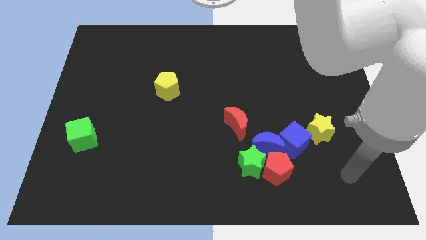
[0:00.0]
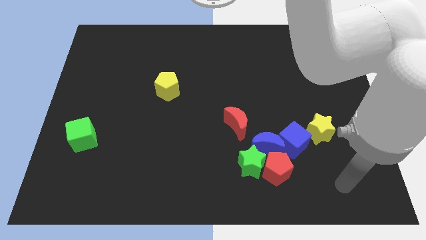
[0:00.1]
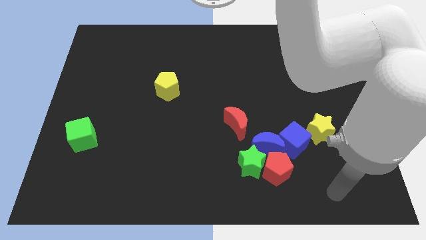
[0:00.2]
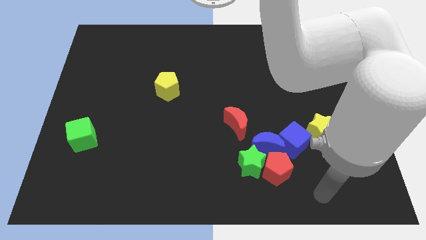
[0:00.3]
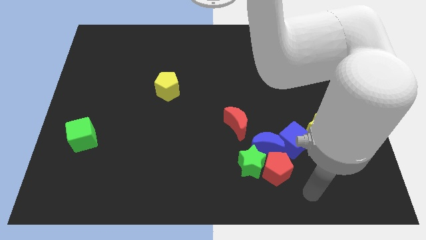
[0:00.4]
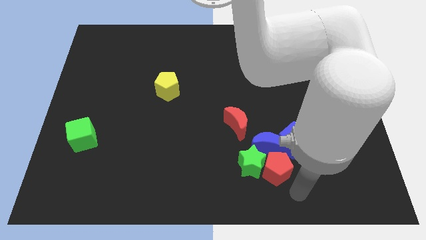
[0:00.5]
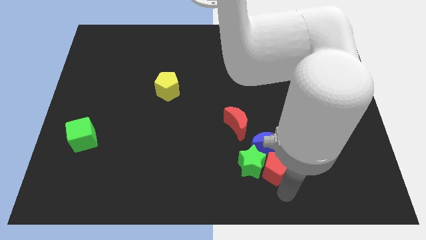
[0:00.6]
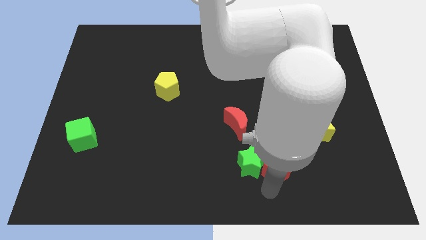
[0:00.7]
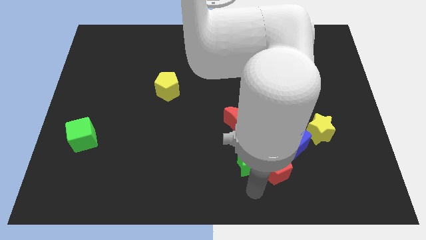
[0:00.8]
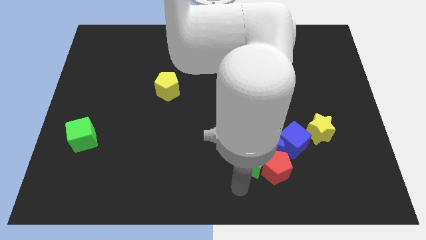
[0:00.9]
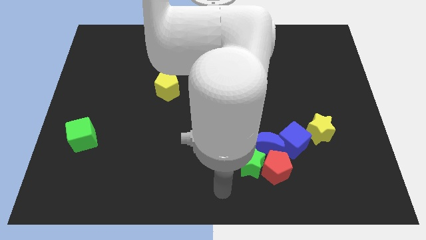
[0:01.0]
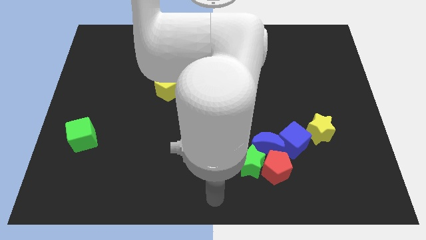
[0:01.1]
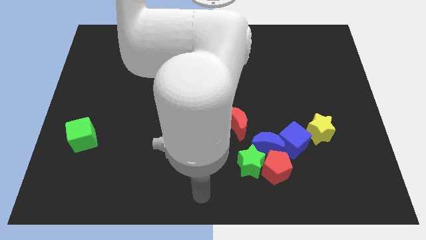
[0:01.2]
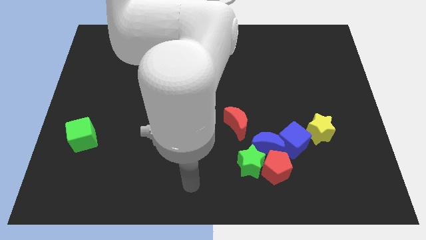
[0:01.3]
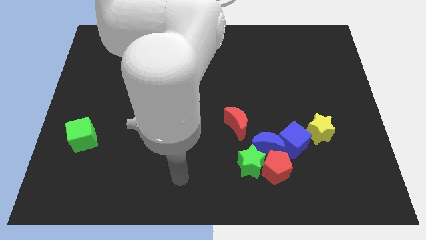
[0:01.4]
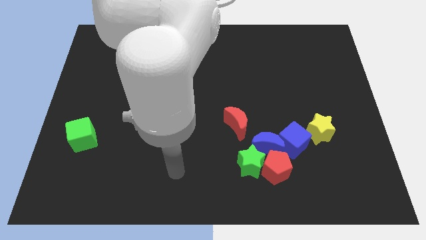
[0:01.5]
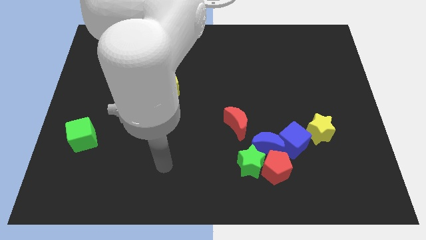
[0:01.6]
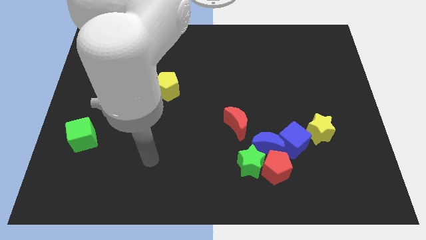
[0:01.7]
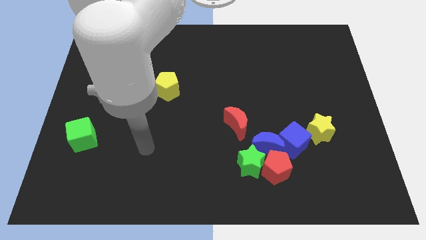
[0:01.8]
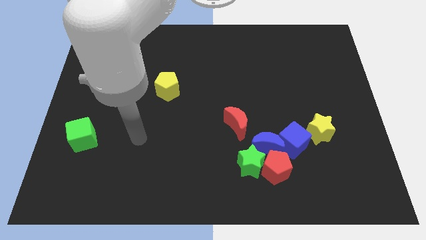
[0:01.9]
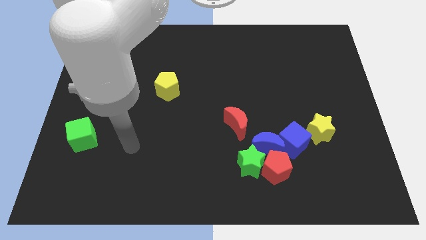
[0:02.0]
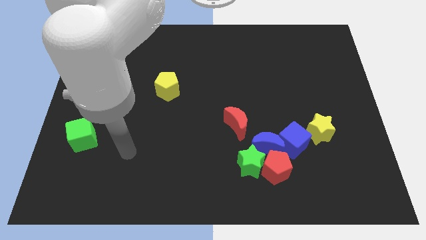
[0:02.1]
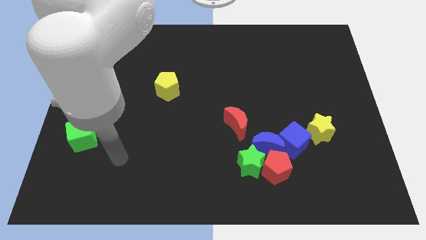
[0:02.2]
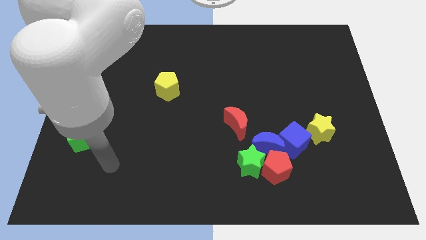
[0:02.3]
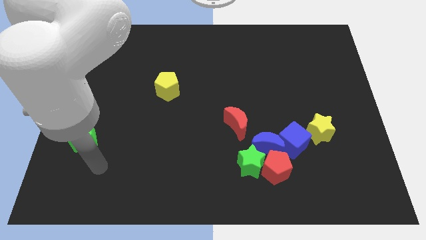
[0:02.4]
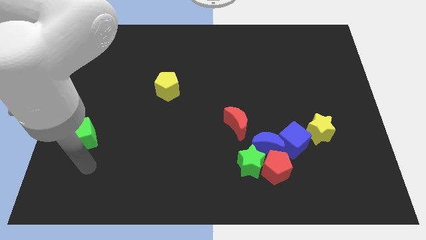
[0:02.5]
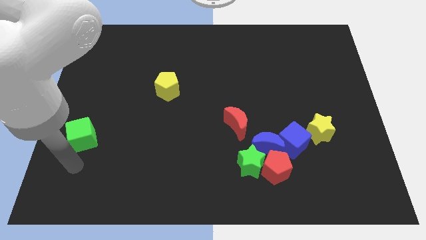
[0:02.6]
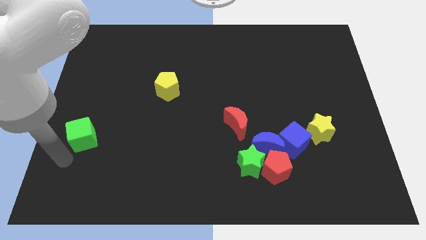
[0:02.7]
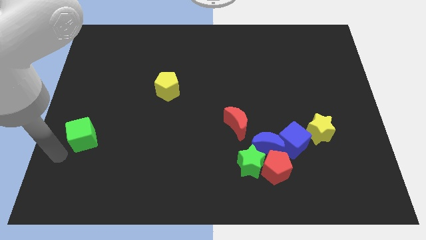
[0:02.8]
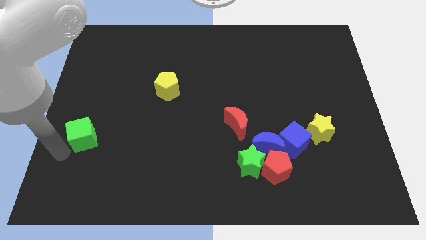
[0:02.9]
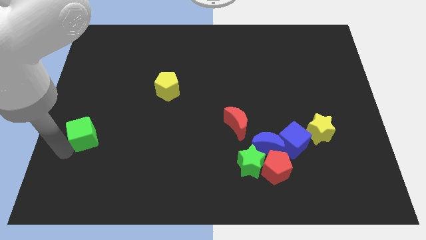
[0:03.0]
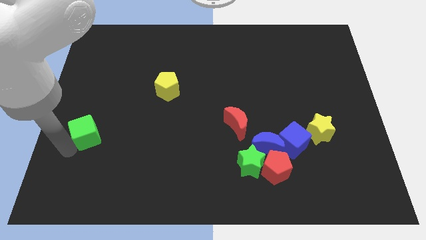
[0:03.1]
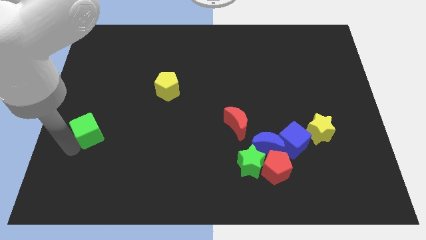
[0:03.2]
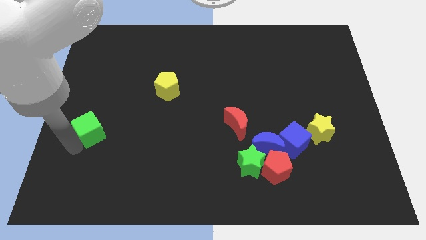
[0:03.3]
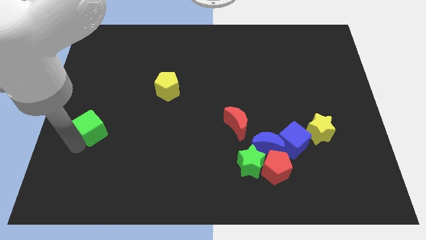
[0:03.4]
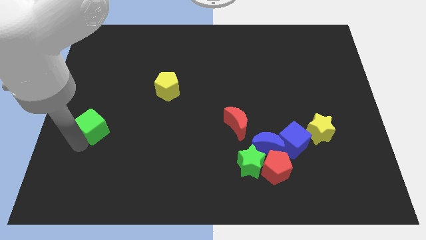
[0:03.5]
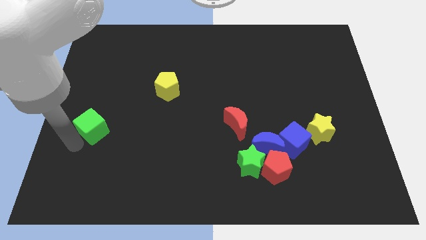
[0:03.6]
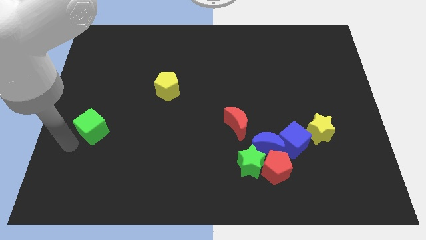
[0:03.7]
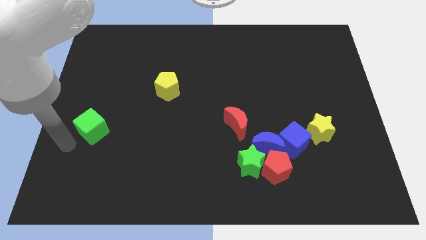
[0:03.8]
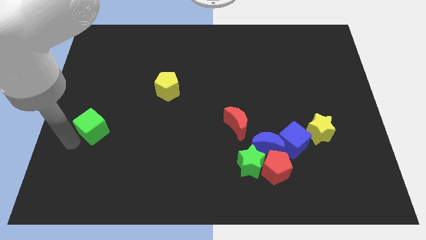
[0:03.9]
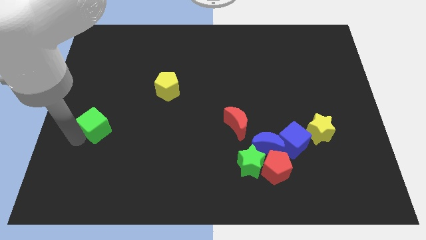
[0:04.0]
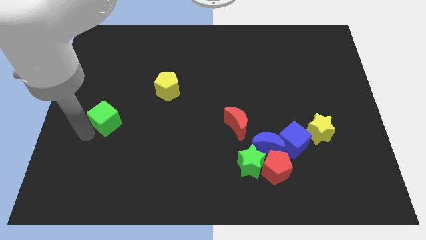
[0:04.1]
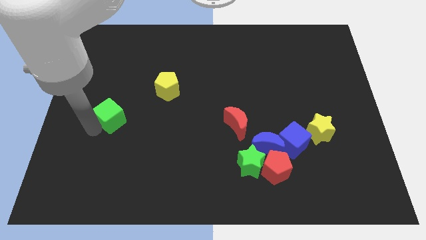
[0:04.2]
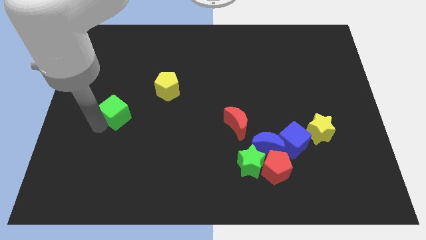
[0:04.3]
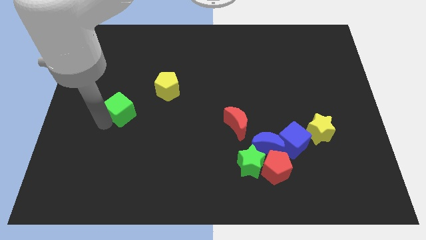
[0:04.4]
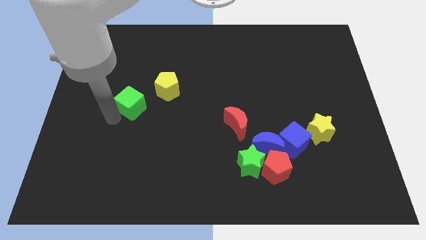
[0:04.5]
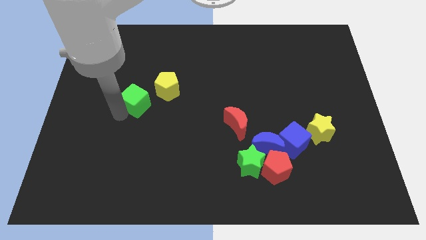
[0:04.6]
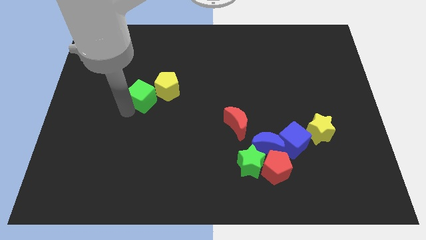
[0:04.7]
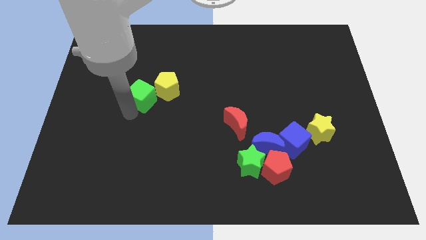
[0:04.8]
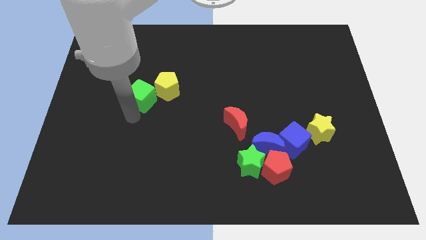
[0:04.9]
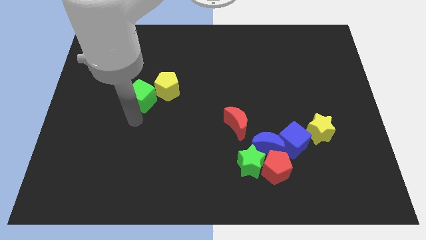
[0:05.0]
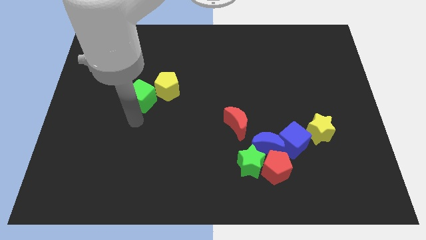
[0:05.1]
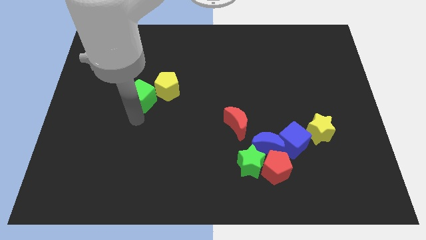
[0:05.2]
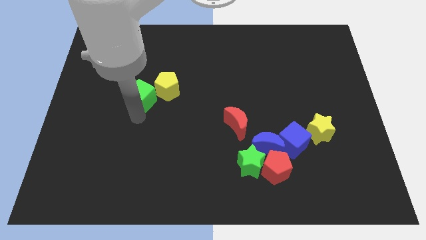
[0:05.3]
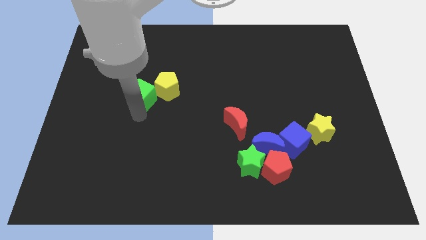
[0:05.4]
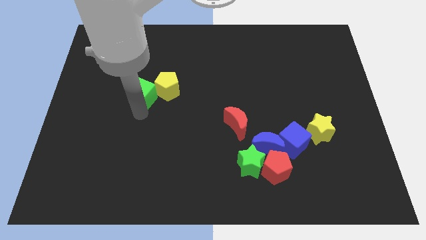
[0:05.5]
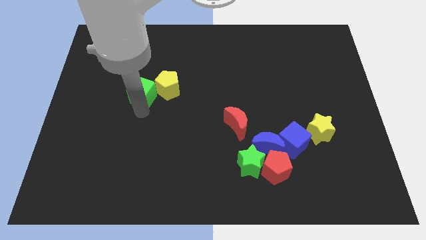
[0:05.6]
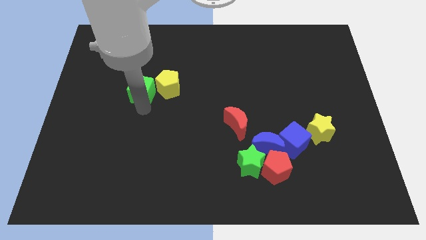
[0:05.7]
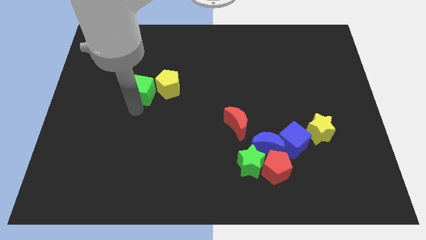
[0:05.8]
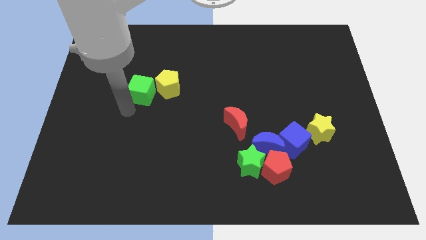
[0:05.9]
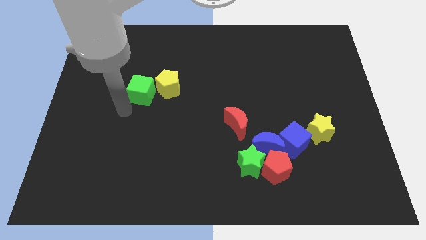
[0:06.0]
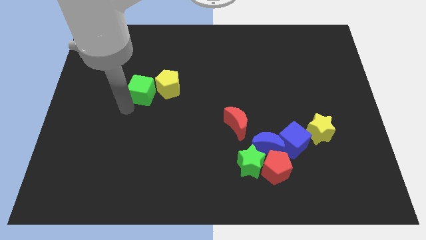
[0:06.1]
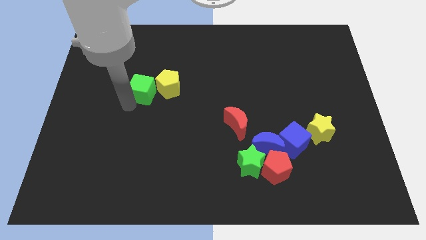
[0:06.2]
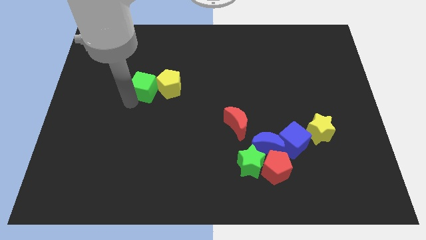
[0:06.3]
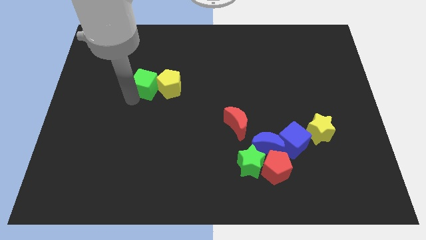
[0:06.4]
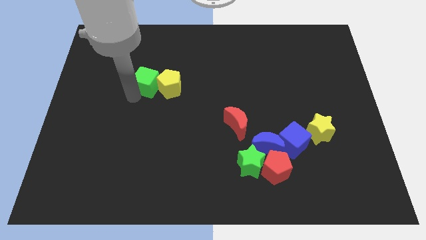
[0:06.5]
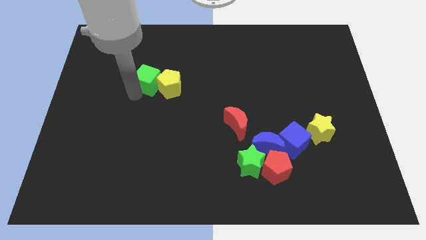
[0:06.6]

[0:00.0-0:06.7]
push the green cube up and to the right

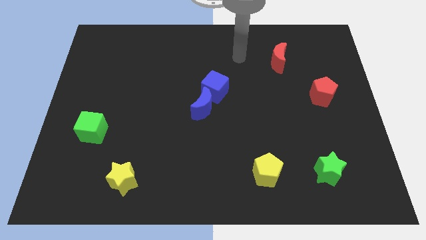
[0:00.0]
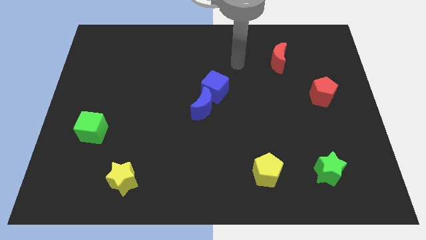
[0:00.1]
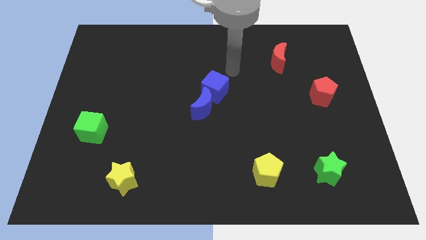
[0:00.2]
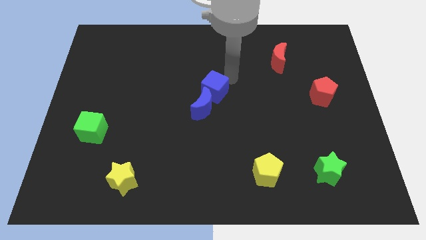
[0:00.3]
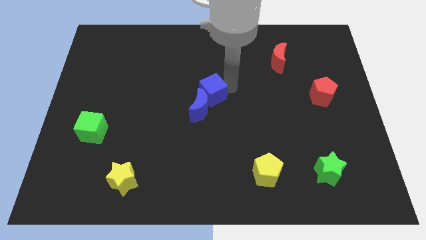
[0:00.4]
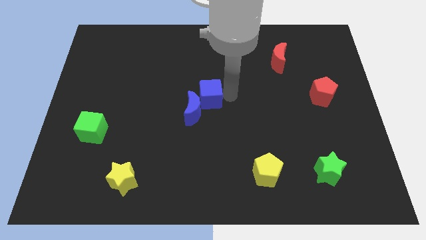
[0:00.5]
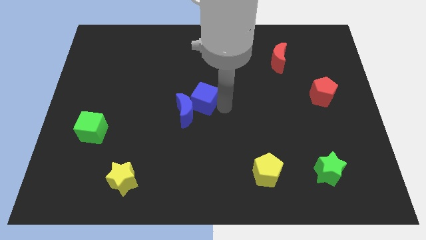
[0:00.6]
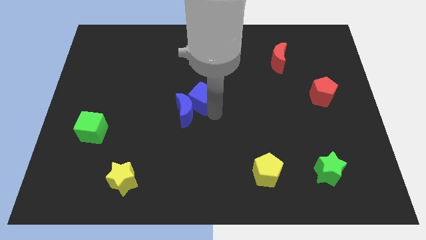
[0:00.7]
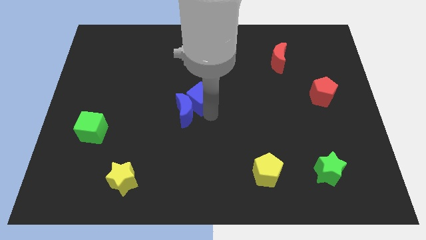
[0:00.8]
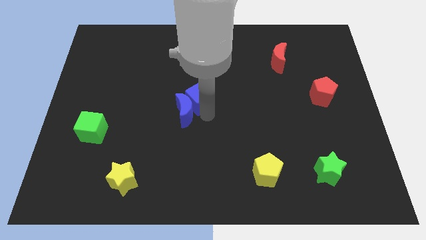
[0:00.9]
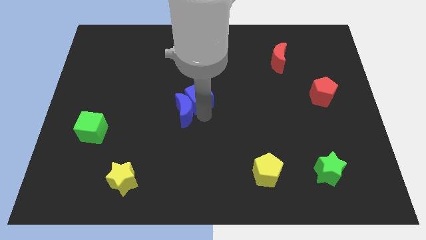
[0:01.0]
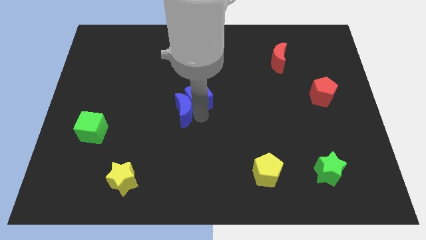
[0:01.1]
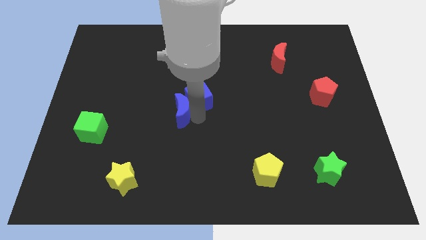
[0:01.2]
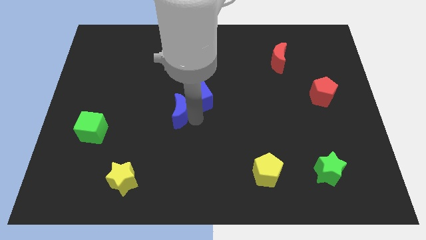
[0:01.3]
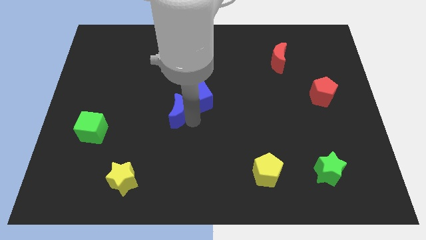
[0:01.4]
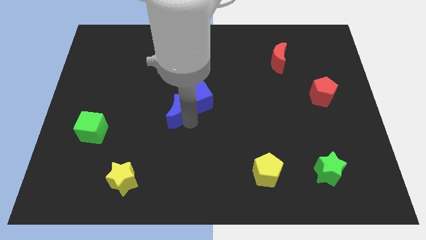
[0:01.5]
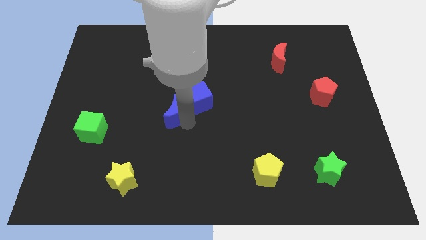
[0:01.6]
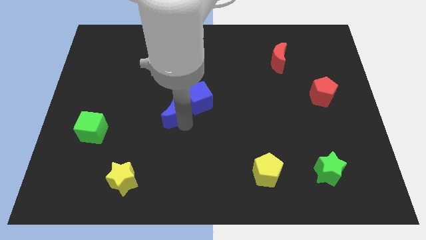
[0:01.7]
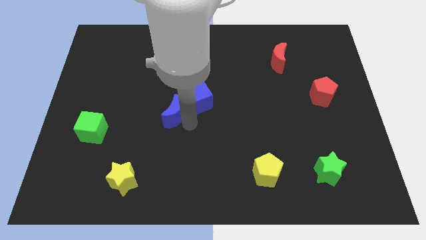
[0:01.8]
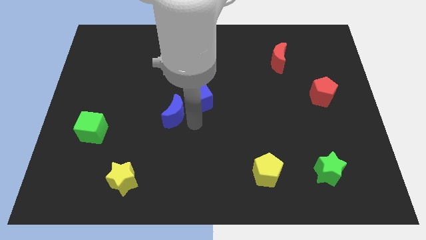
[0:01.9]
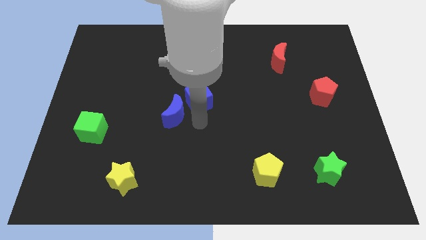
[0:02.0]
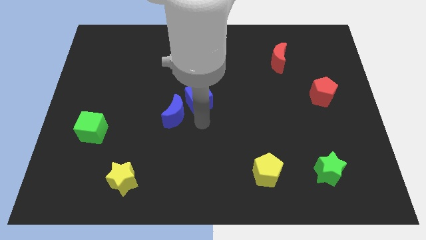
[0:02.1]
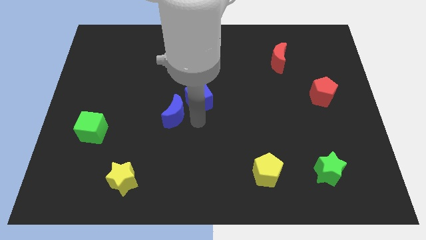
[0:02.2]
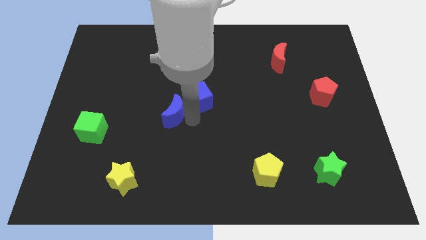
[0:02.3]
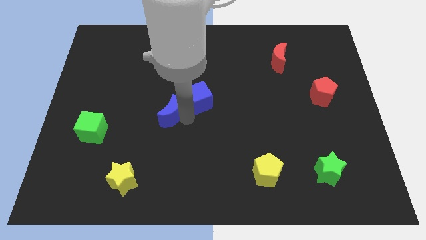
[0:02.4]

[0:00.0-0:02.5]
move the blue moon left somewhat
